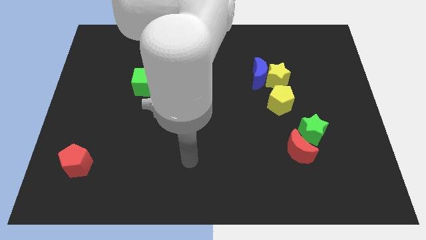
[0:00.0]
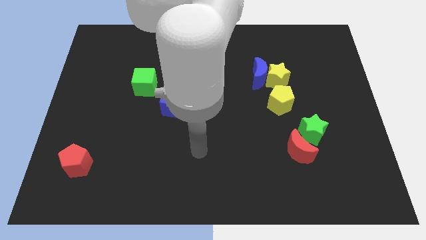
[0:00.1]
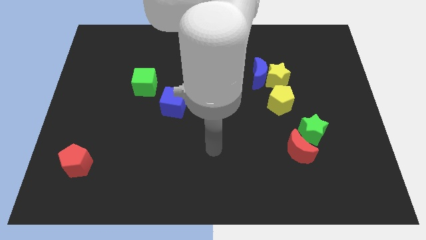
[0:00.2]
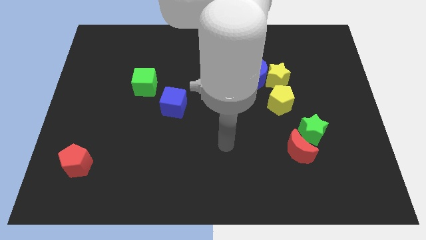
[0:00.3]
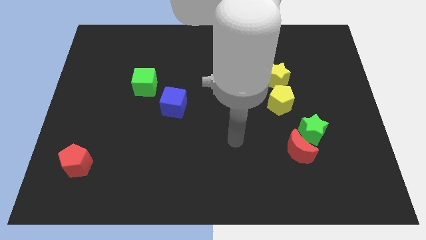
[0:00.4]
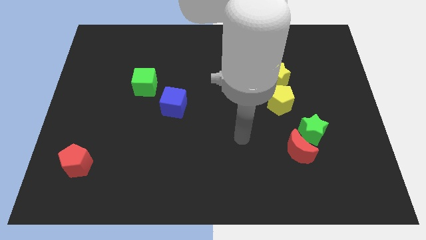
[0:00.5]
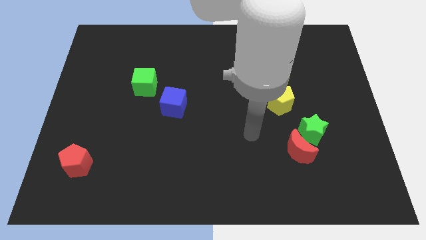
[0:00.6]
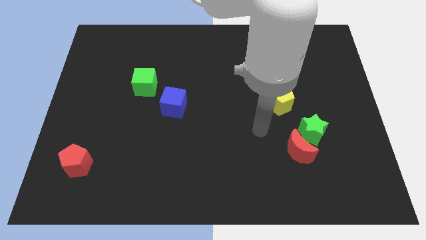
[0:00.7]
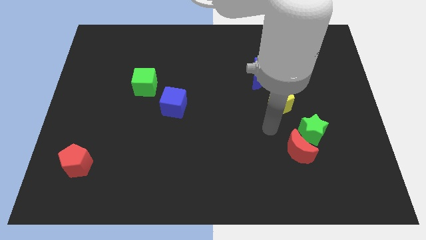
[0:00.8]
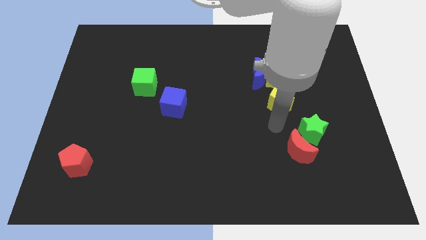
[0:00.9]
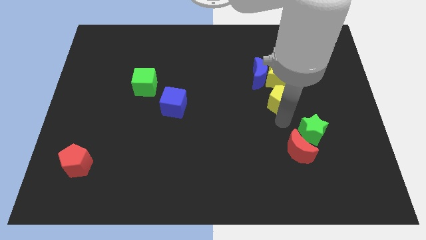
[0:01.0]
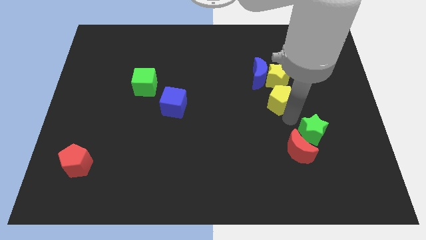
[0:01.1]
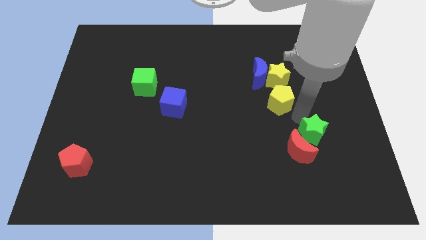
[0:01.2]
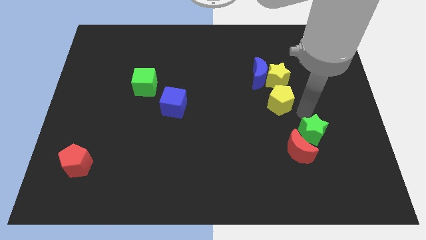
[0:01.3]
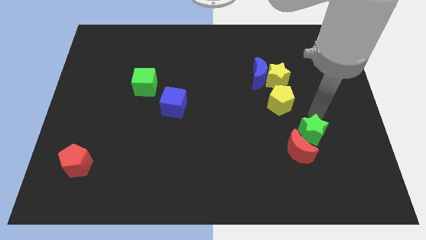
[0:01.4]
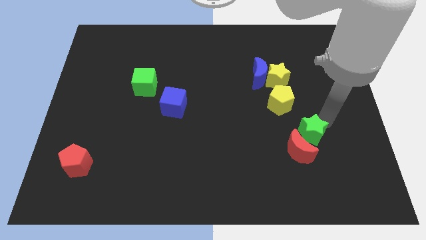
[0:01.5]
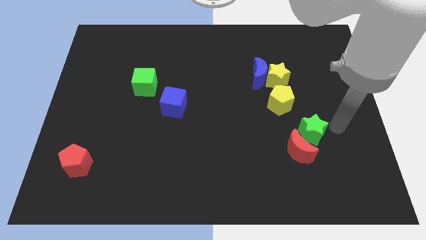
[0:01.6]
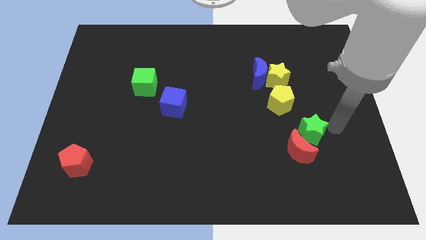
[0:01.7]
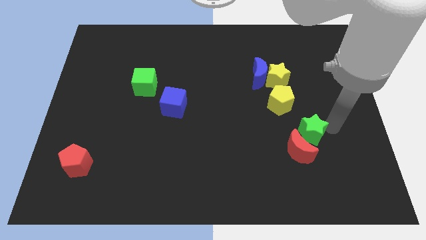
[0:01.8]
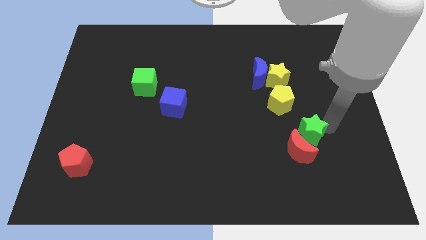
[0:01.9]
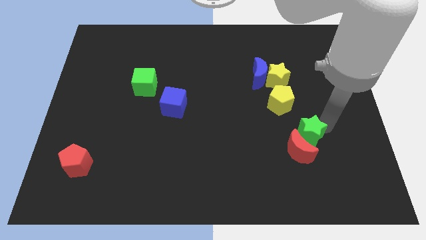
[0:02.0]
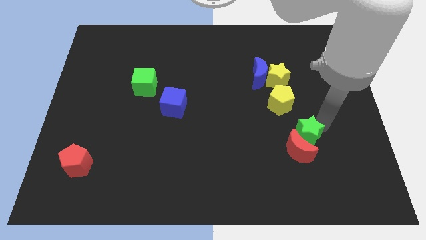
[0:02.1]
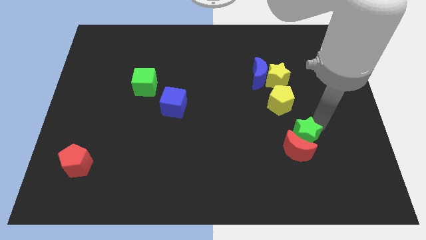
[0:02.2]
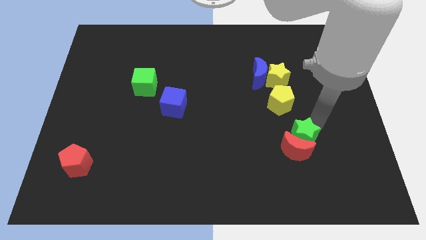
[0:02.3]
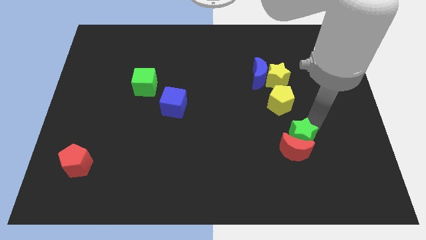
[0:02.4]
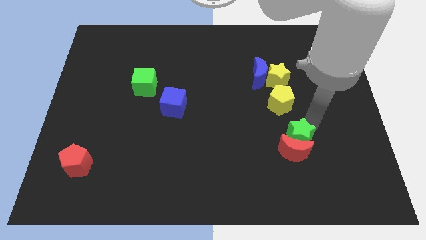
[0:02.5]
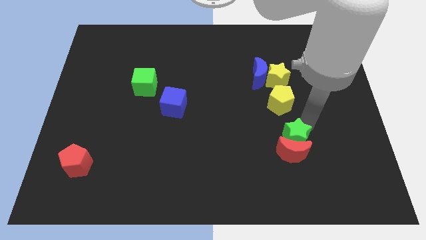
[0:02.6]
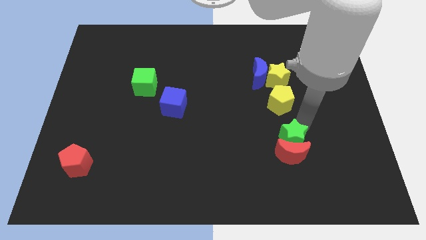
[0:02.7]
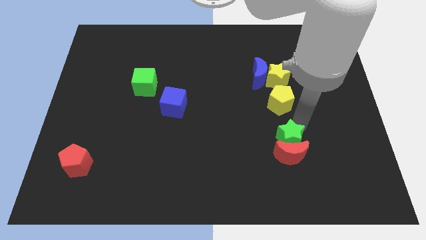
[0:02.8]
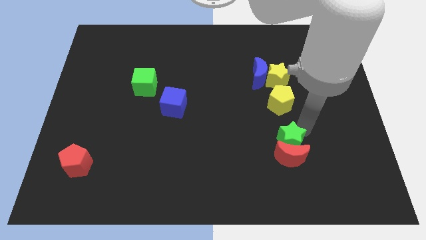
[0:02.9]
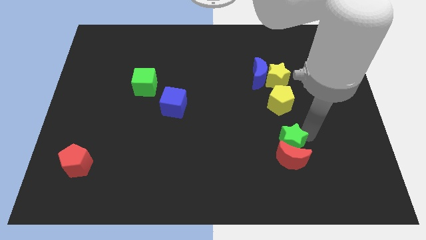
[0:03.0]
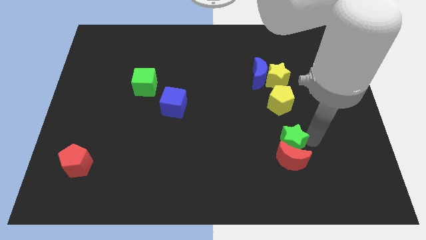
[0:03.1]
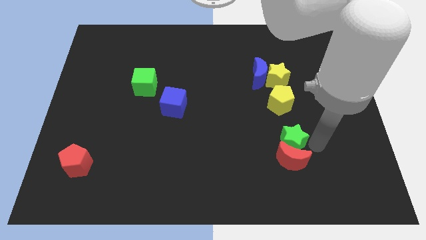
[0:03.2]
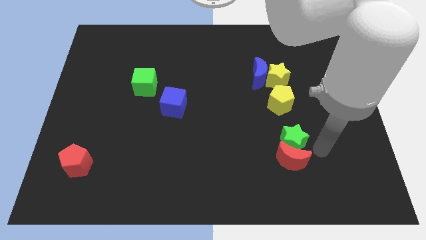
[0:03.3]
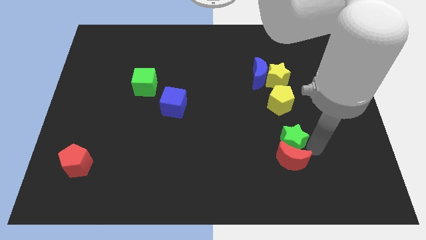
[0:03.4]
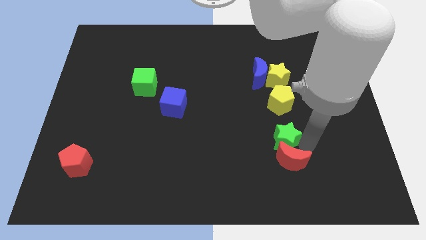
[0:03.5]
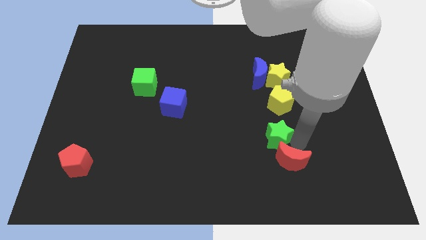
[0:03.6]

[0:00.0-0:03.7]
move the green star left a little bit

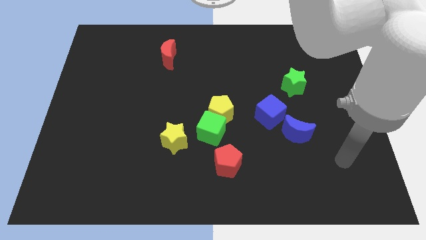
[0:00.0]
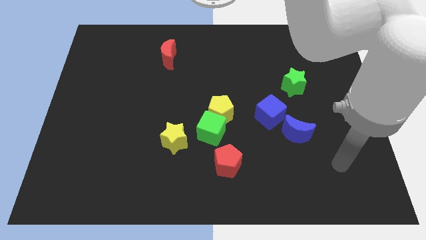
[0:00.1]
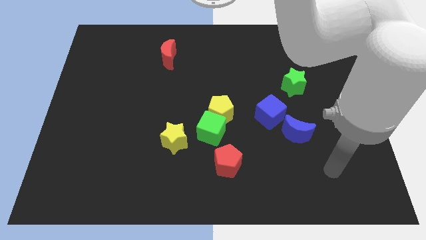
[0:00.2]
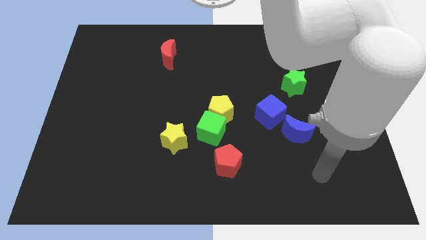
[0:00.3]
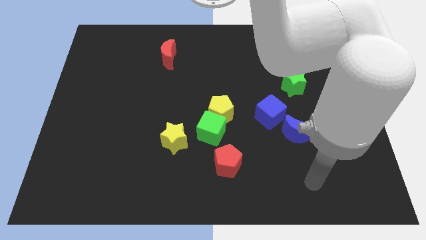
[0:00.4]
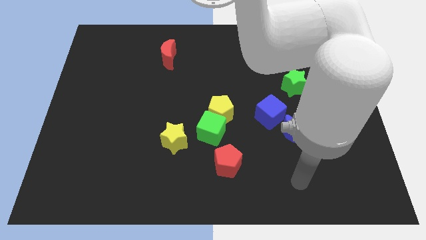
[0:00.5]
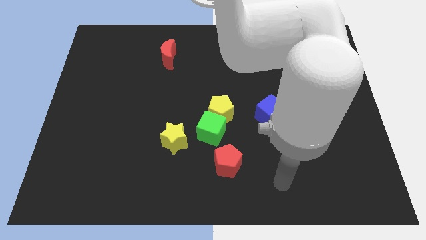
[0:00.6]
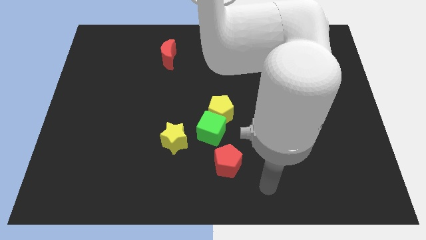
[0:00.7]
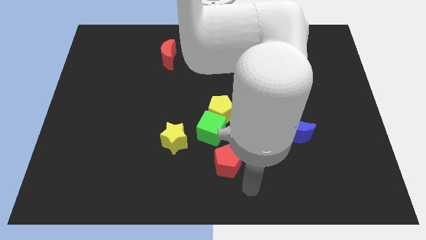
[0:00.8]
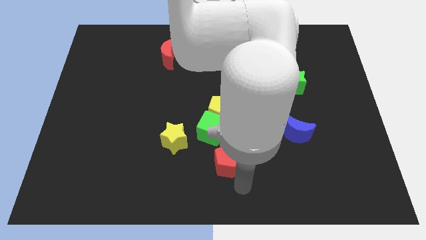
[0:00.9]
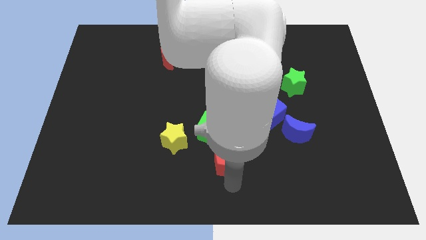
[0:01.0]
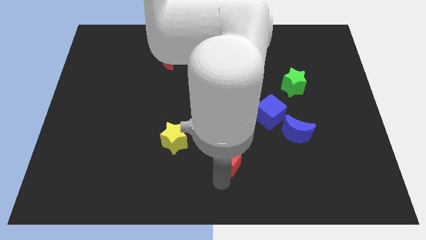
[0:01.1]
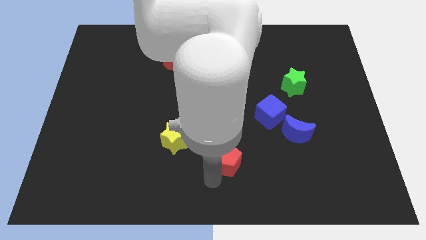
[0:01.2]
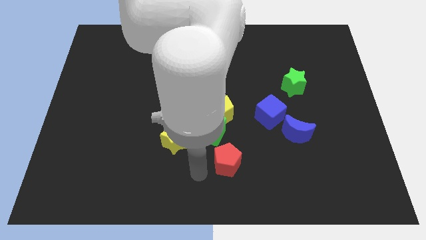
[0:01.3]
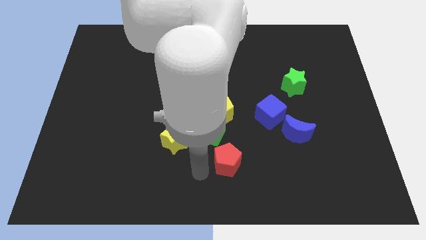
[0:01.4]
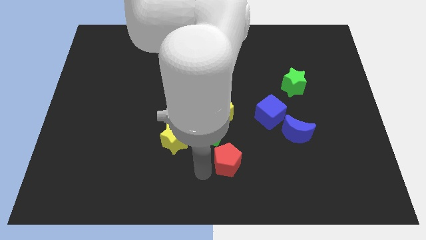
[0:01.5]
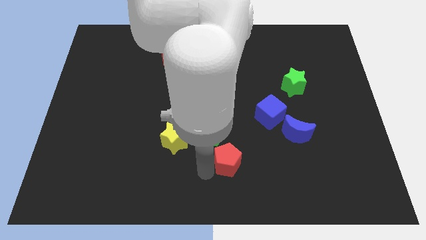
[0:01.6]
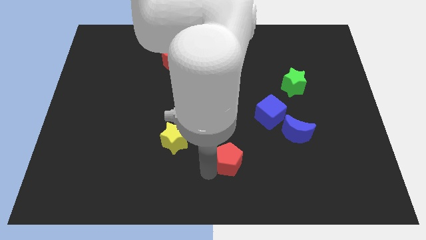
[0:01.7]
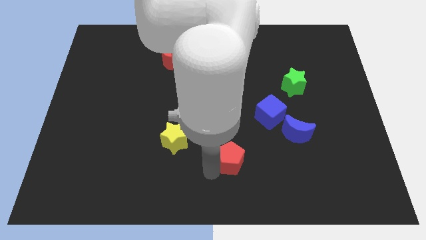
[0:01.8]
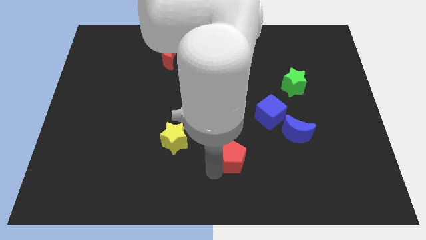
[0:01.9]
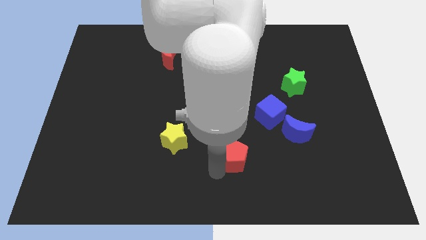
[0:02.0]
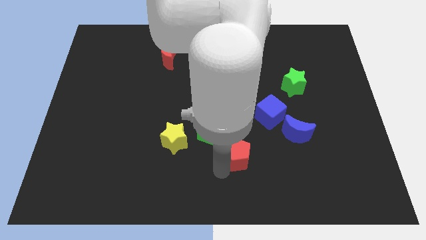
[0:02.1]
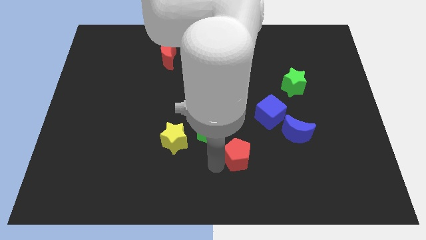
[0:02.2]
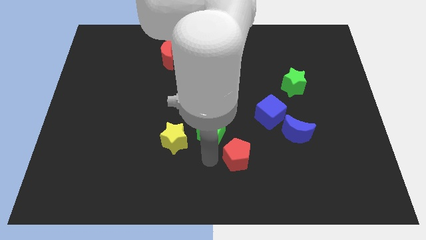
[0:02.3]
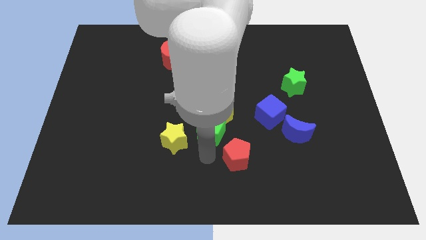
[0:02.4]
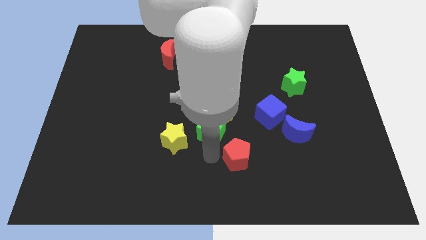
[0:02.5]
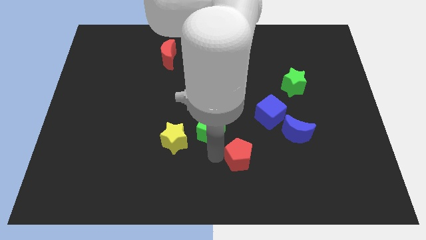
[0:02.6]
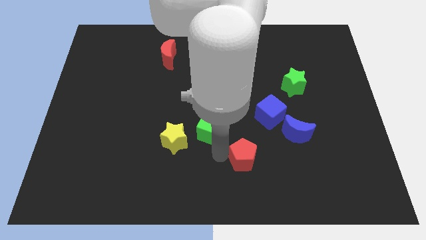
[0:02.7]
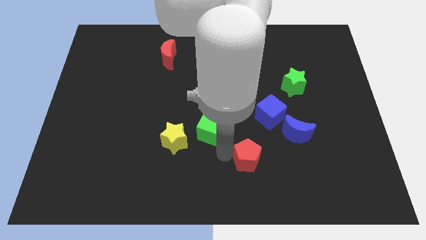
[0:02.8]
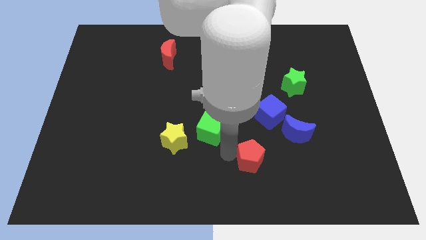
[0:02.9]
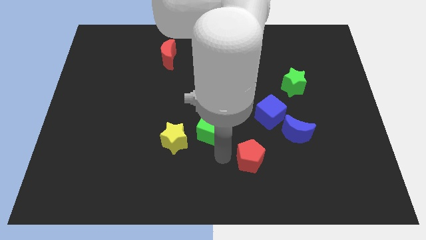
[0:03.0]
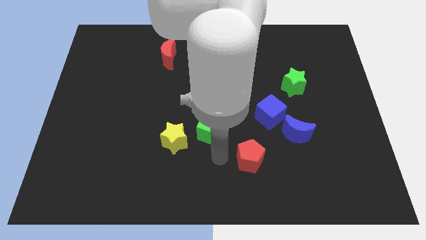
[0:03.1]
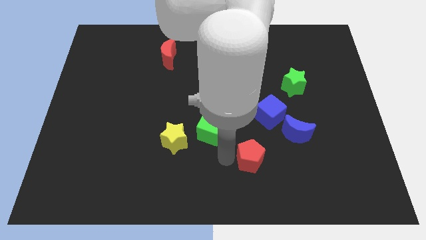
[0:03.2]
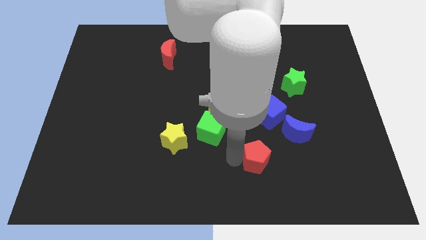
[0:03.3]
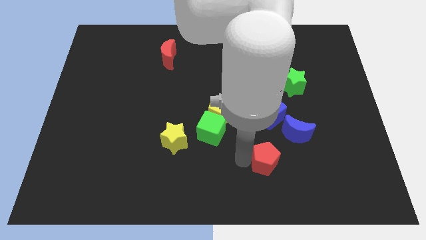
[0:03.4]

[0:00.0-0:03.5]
slide the red pentagon to the right a little

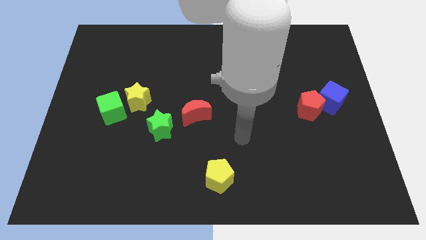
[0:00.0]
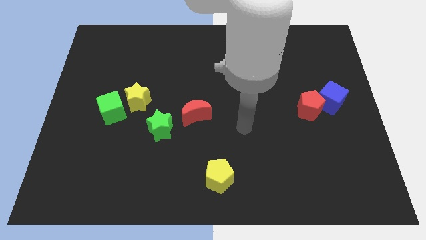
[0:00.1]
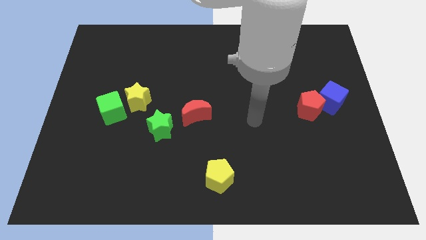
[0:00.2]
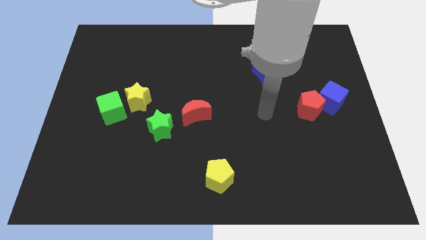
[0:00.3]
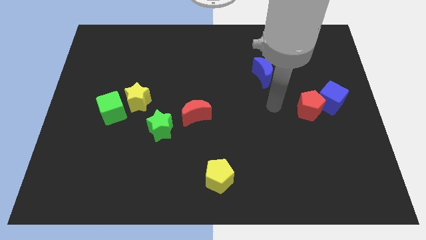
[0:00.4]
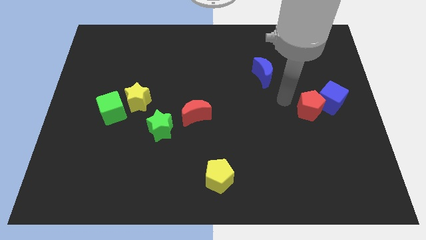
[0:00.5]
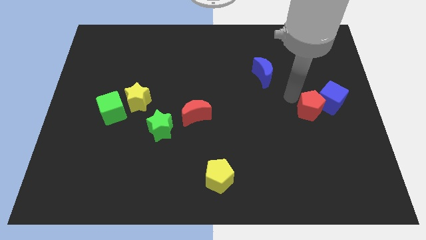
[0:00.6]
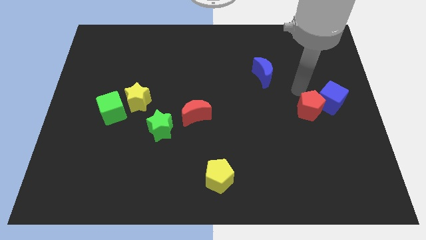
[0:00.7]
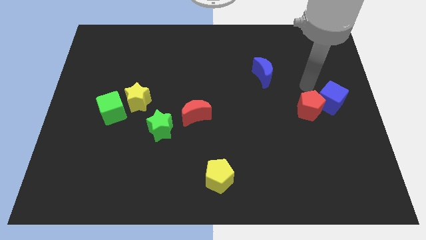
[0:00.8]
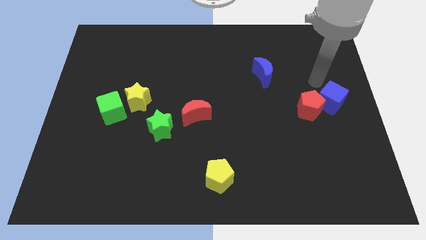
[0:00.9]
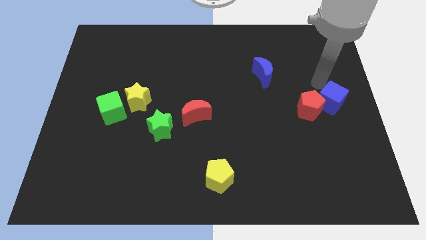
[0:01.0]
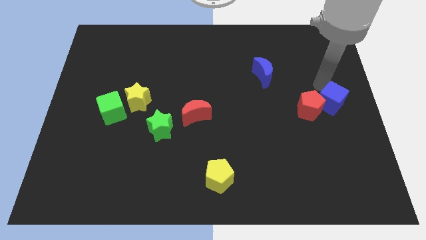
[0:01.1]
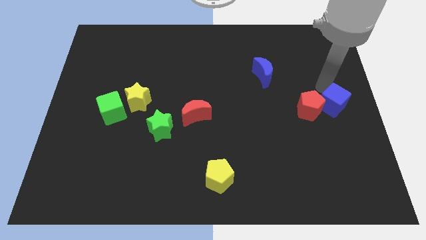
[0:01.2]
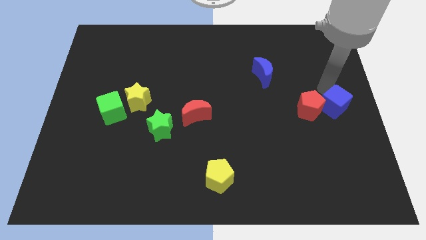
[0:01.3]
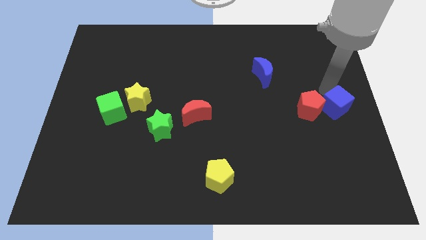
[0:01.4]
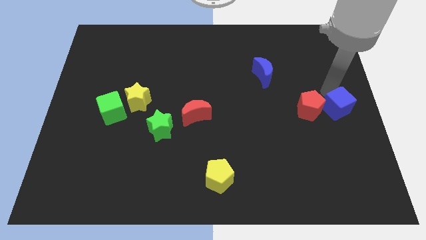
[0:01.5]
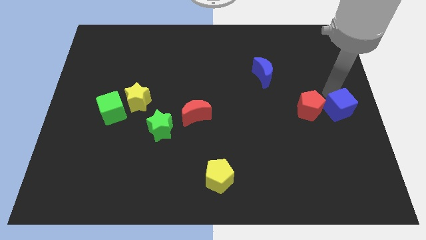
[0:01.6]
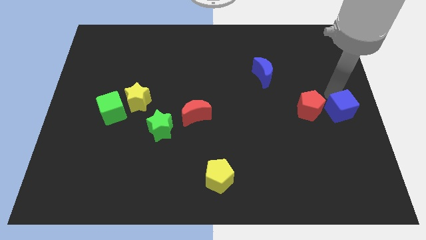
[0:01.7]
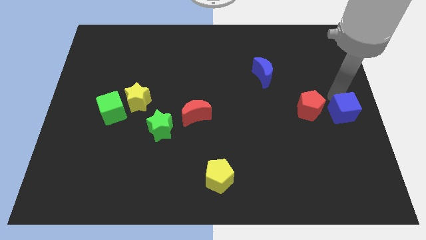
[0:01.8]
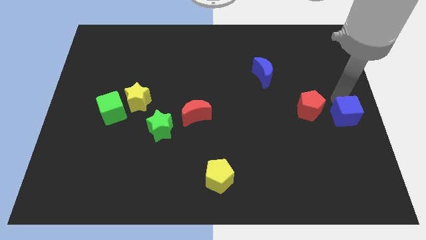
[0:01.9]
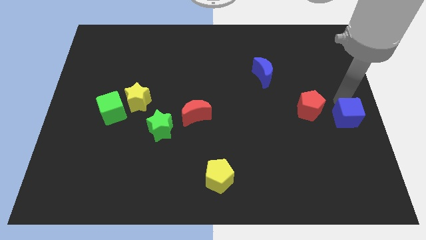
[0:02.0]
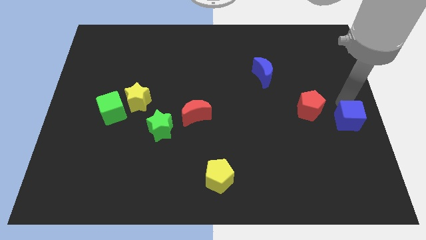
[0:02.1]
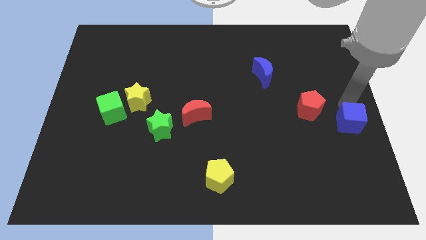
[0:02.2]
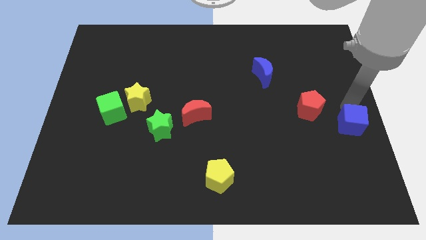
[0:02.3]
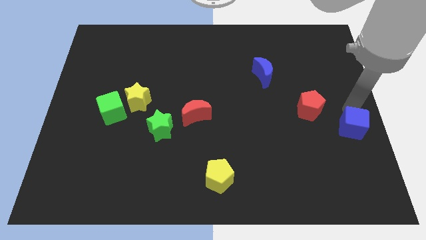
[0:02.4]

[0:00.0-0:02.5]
slightly slide the blue cube down
